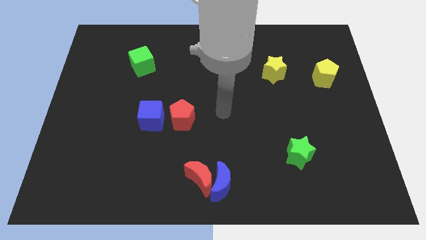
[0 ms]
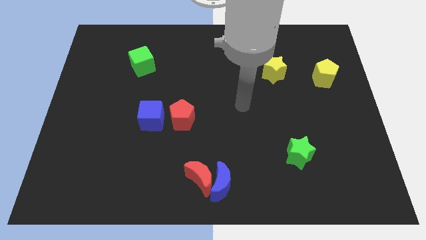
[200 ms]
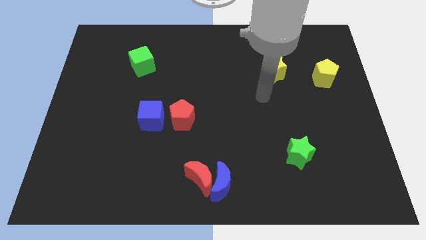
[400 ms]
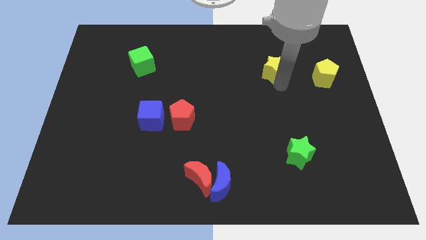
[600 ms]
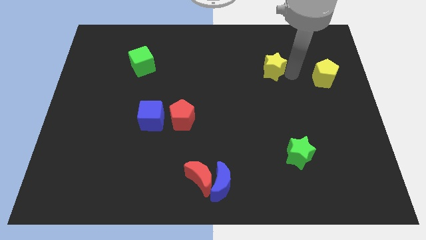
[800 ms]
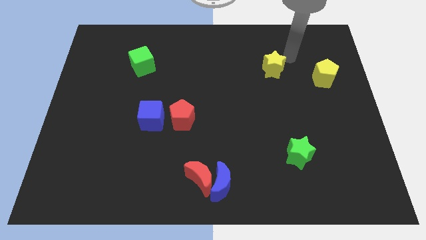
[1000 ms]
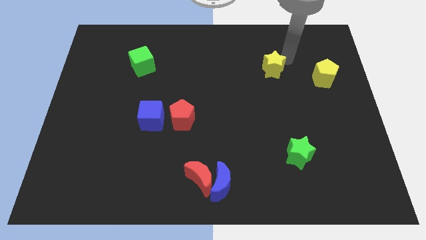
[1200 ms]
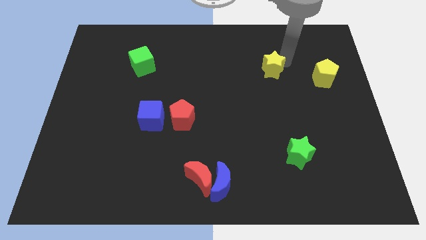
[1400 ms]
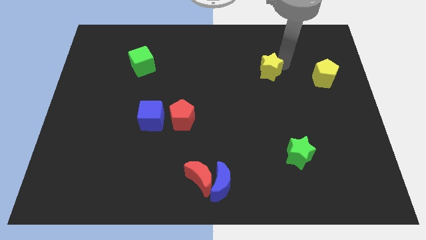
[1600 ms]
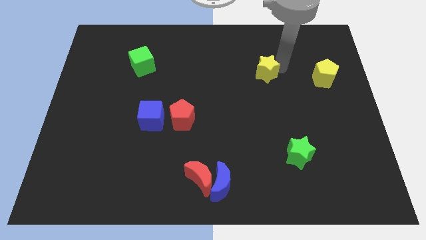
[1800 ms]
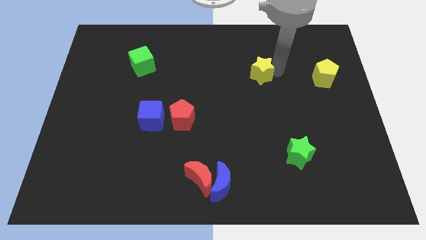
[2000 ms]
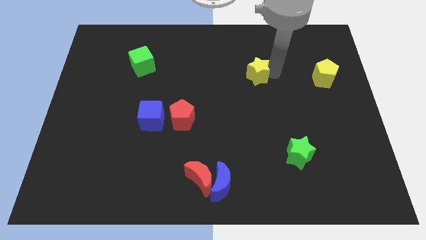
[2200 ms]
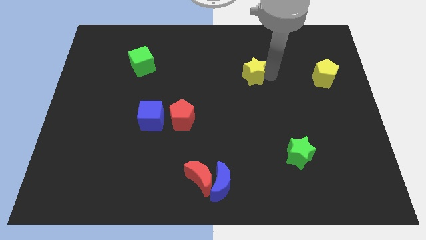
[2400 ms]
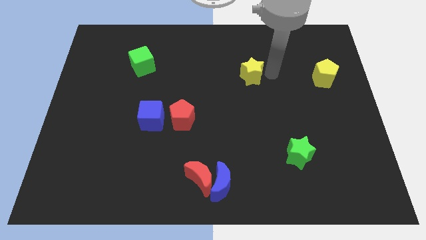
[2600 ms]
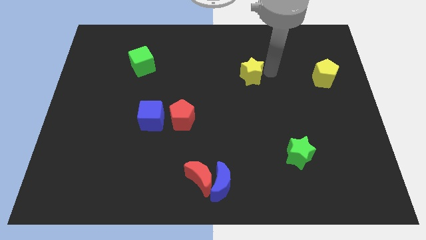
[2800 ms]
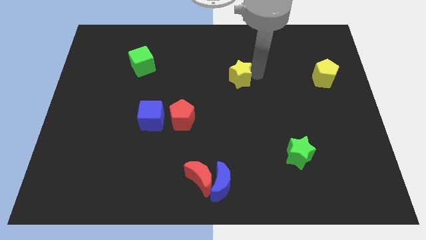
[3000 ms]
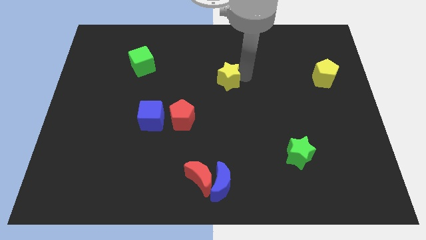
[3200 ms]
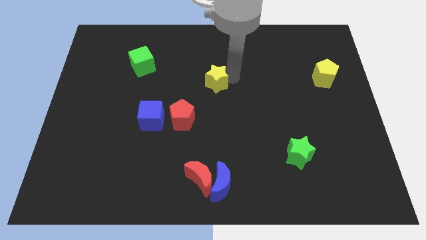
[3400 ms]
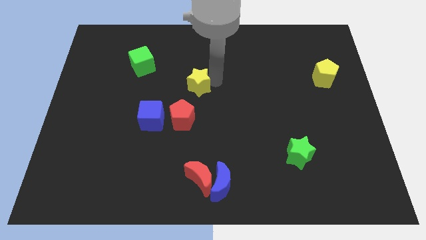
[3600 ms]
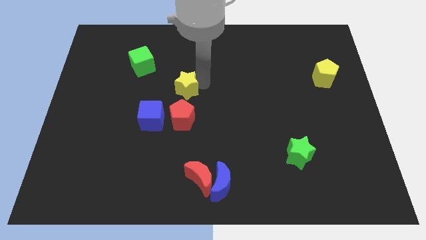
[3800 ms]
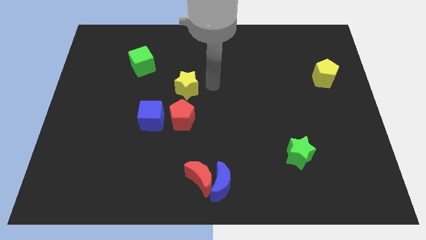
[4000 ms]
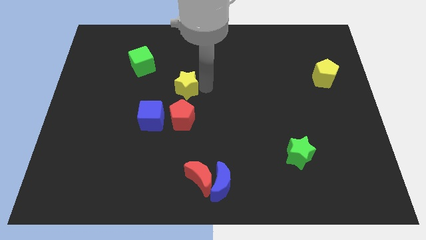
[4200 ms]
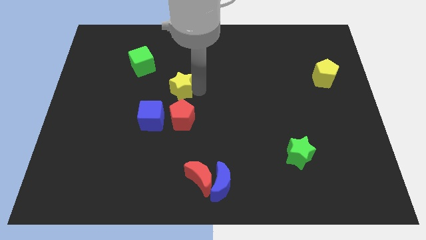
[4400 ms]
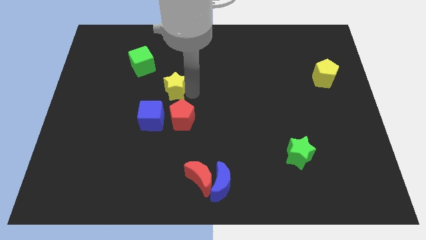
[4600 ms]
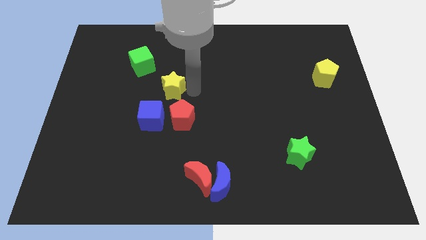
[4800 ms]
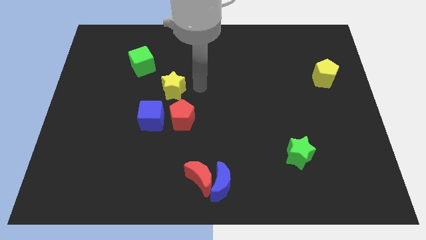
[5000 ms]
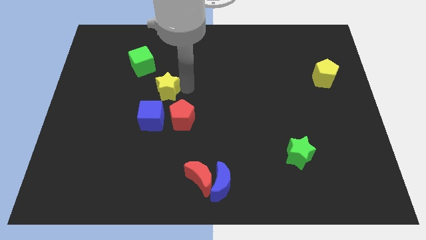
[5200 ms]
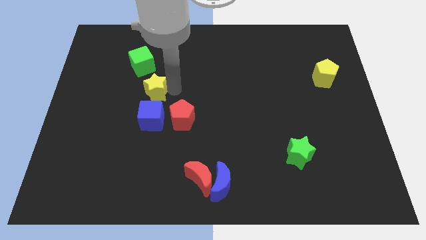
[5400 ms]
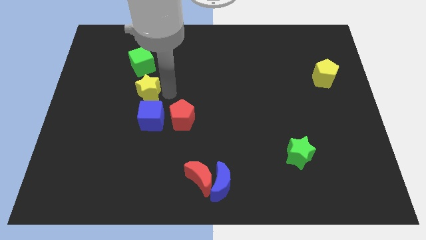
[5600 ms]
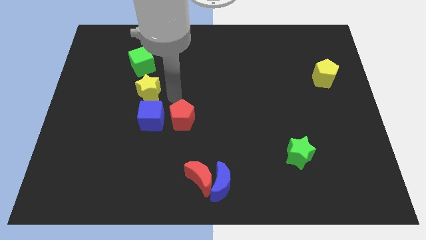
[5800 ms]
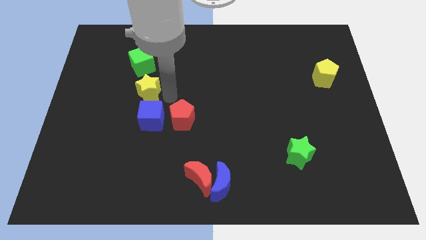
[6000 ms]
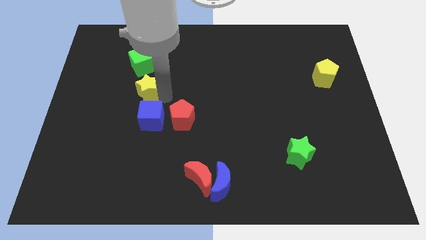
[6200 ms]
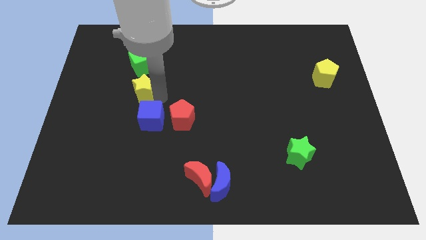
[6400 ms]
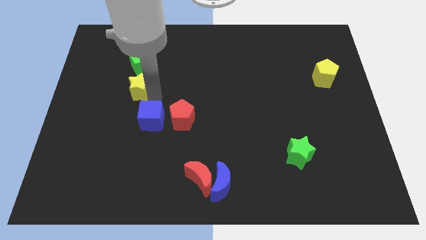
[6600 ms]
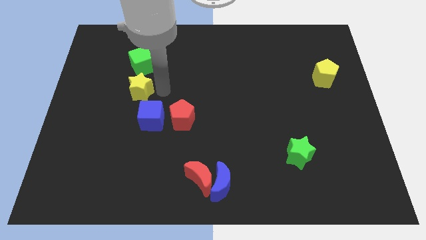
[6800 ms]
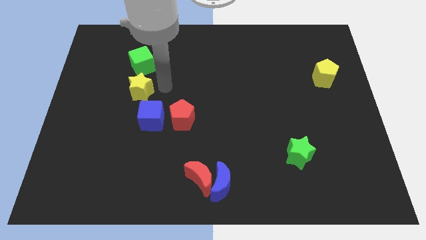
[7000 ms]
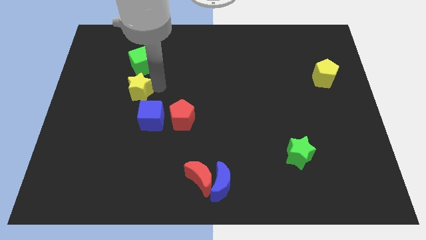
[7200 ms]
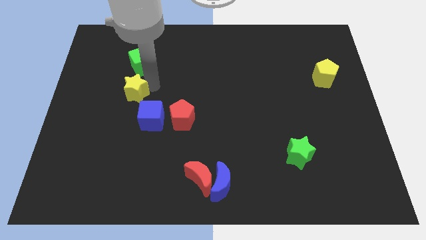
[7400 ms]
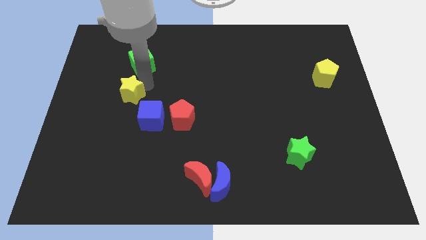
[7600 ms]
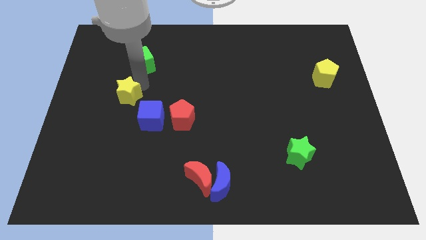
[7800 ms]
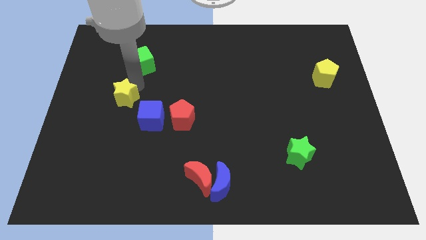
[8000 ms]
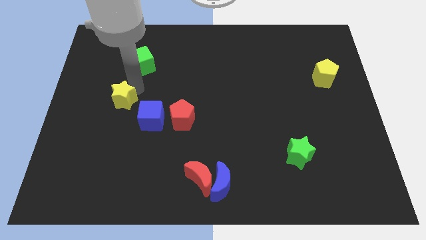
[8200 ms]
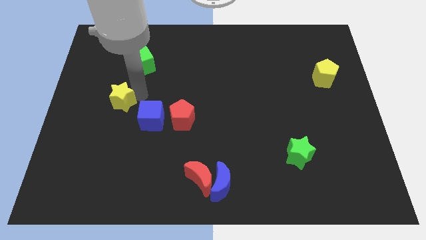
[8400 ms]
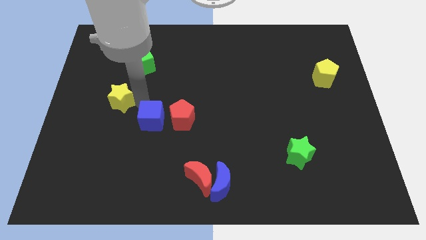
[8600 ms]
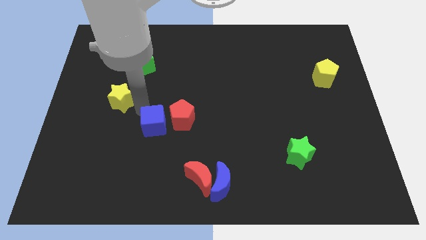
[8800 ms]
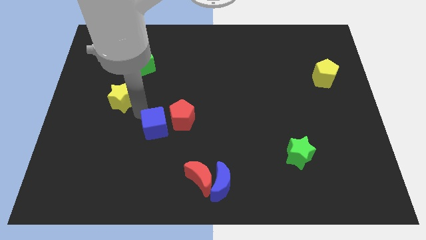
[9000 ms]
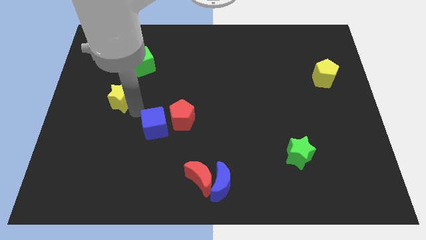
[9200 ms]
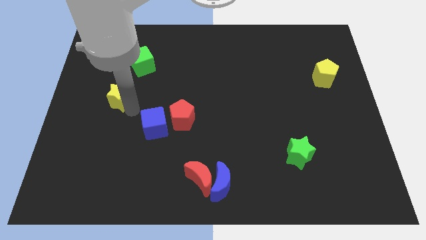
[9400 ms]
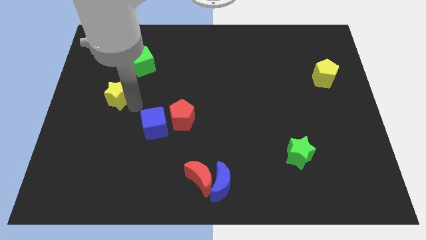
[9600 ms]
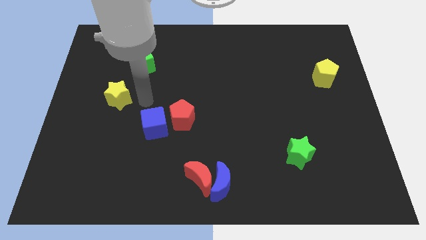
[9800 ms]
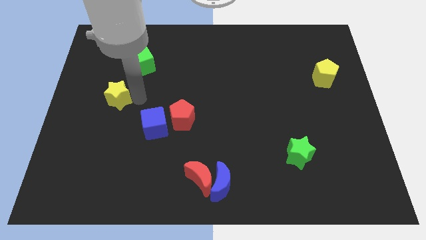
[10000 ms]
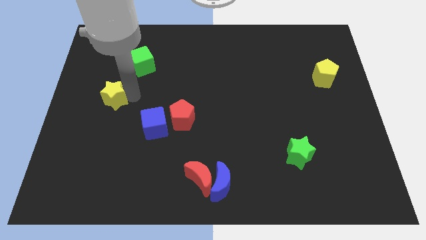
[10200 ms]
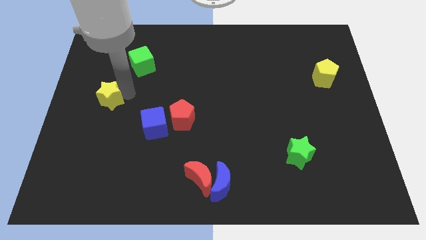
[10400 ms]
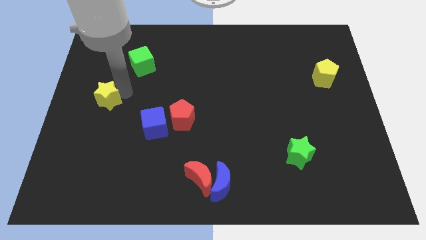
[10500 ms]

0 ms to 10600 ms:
push the yellow star to the left side of the board

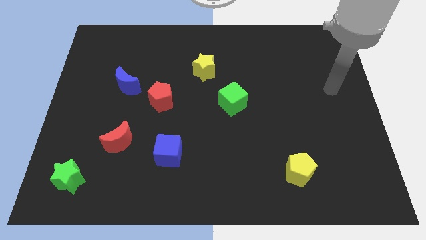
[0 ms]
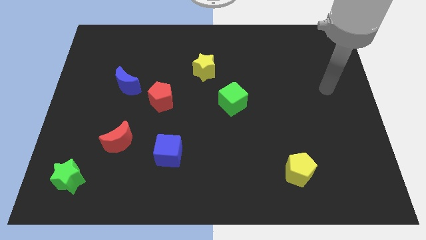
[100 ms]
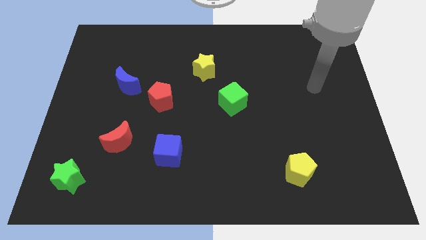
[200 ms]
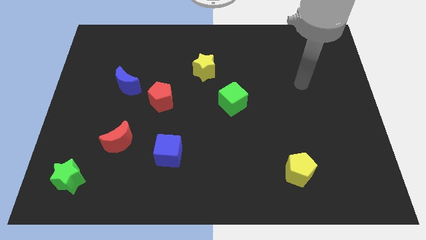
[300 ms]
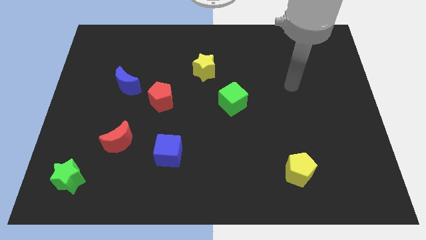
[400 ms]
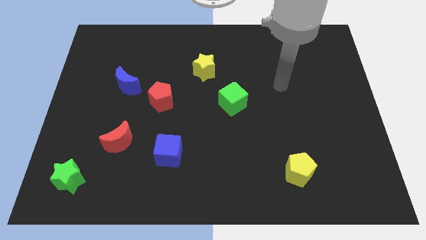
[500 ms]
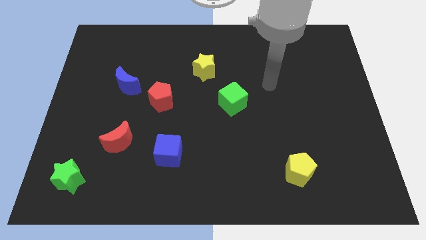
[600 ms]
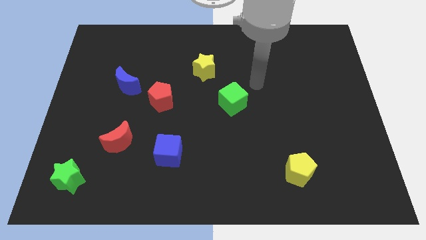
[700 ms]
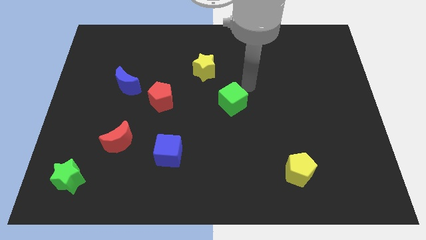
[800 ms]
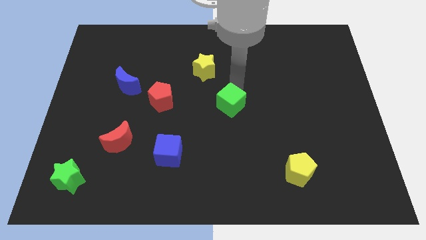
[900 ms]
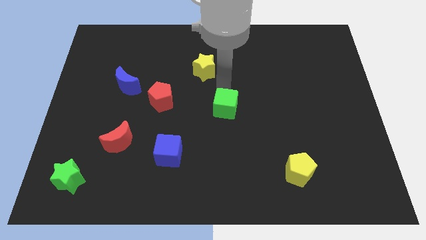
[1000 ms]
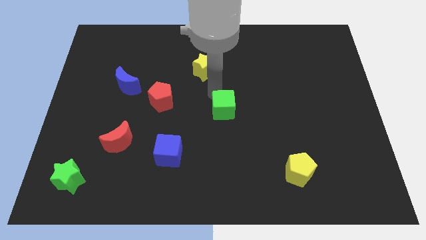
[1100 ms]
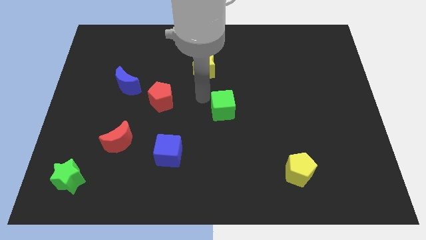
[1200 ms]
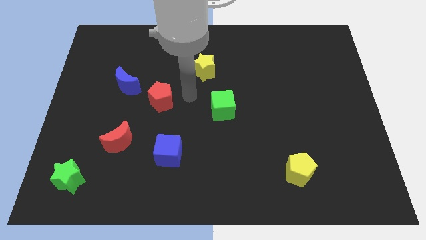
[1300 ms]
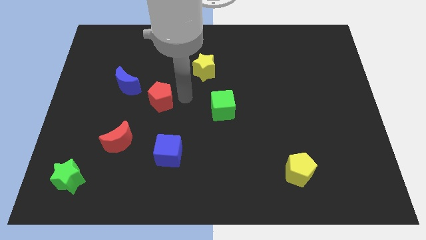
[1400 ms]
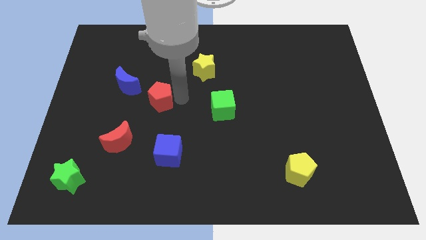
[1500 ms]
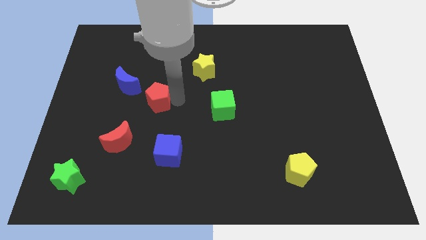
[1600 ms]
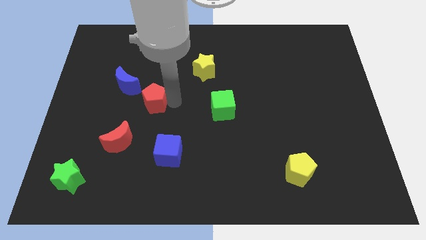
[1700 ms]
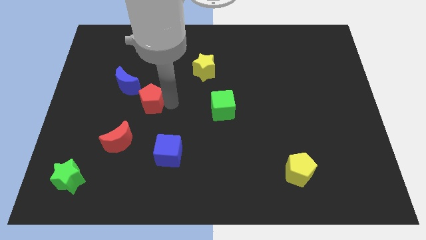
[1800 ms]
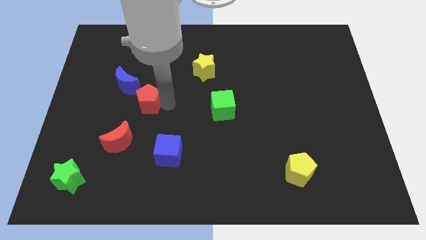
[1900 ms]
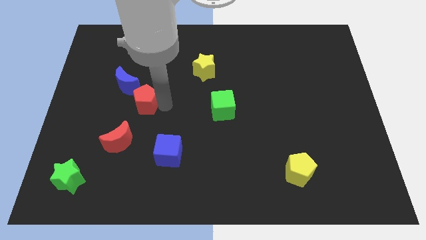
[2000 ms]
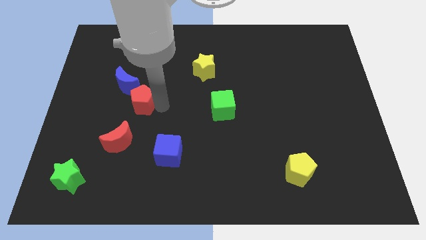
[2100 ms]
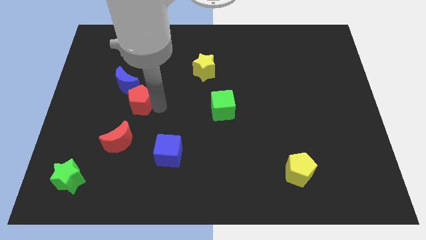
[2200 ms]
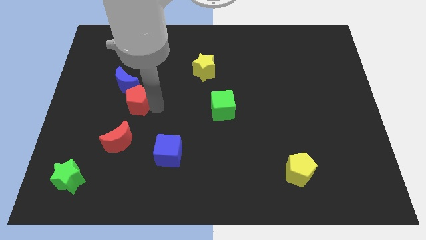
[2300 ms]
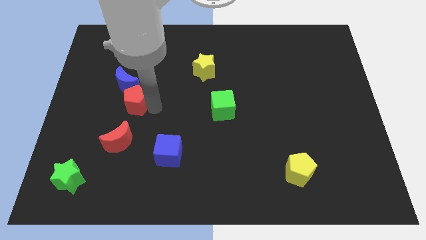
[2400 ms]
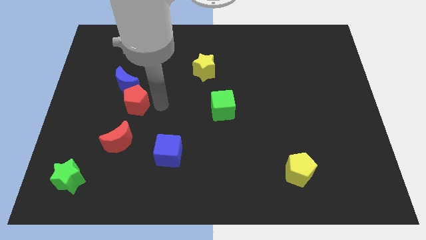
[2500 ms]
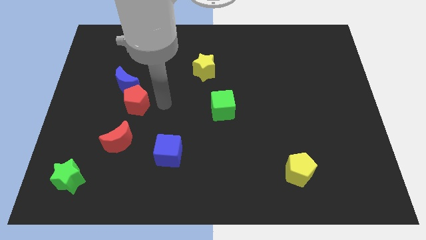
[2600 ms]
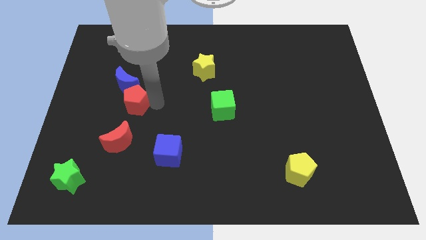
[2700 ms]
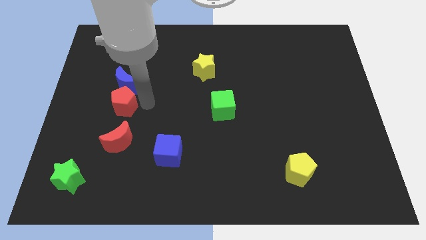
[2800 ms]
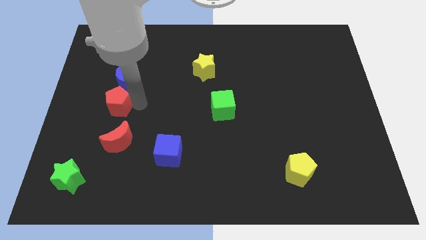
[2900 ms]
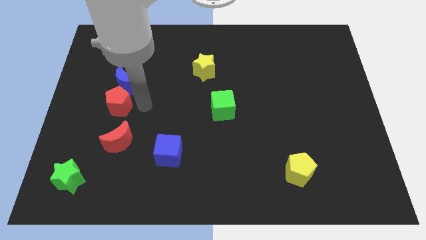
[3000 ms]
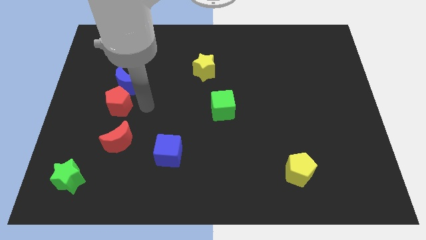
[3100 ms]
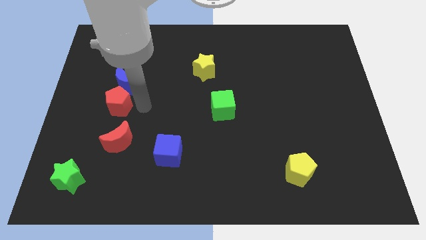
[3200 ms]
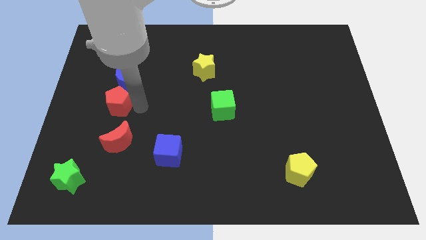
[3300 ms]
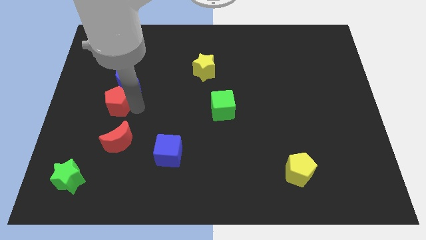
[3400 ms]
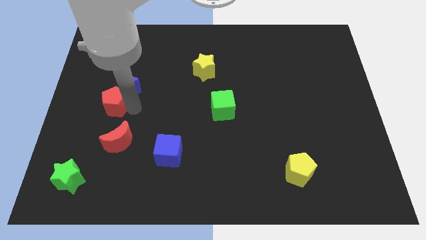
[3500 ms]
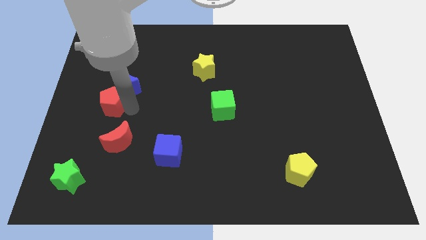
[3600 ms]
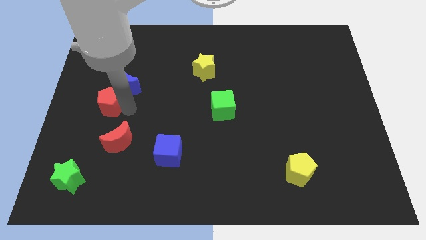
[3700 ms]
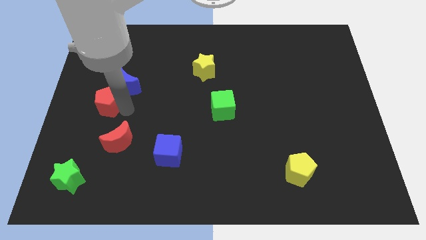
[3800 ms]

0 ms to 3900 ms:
push the red pentagon to the left side
